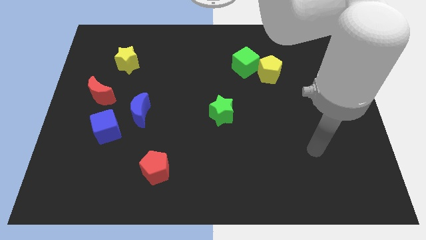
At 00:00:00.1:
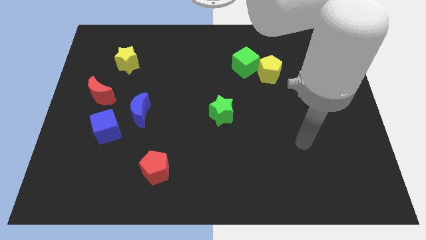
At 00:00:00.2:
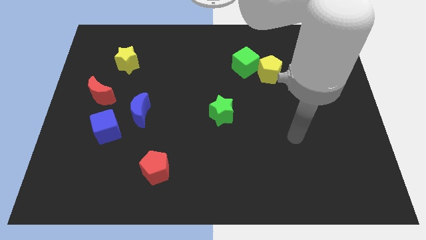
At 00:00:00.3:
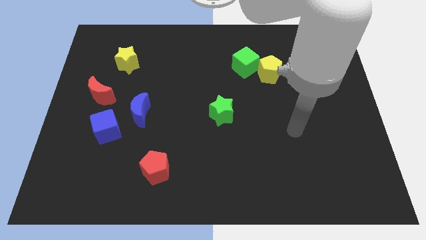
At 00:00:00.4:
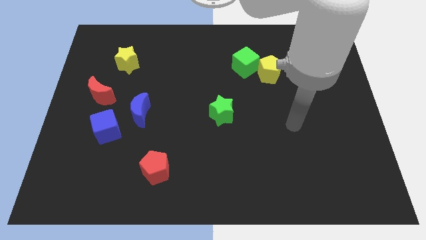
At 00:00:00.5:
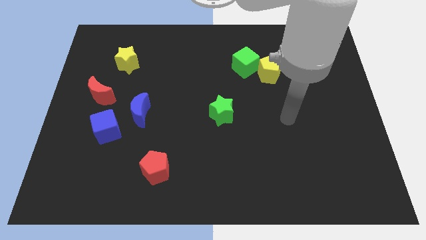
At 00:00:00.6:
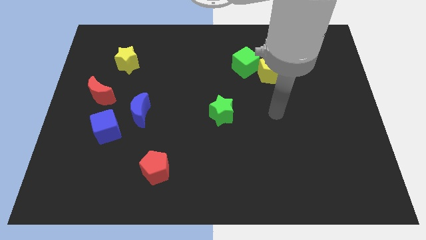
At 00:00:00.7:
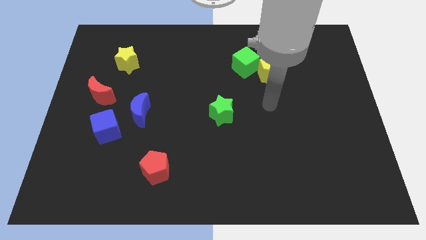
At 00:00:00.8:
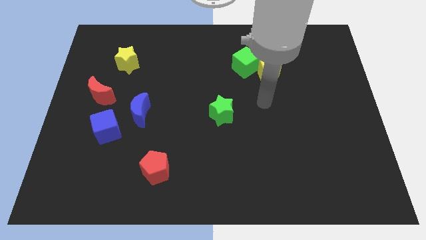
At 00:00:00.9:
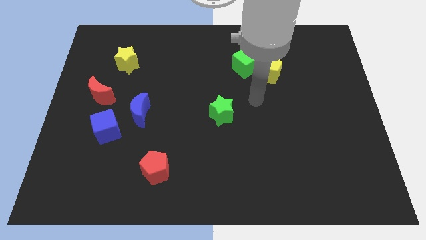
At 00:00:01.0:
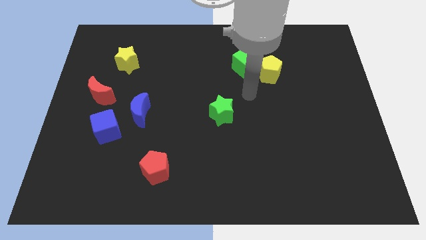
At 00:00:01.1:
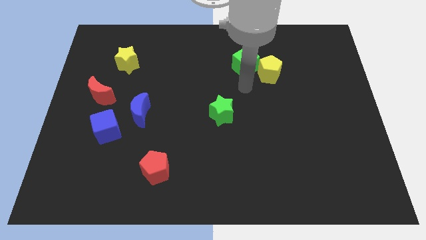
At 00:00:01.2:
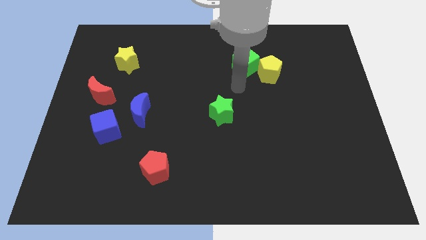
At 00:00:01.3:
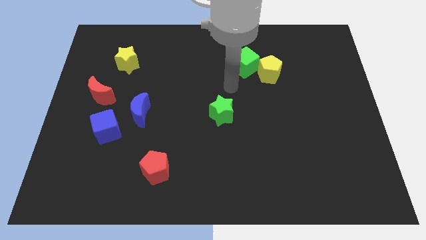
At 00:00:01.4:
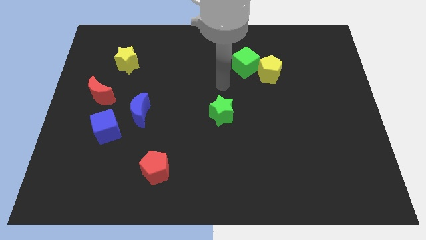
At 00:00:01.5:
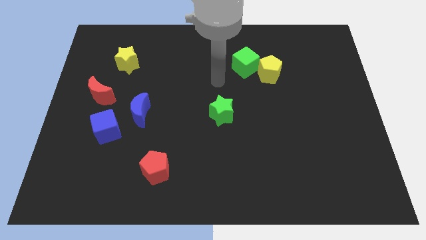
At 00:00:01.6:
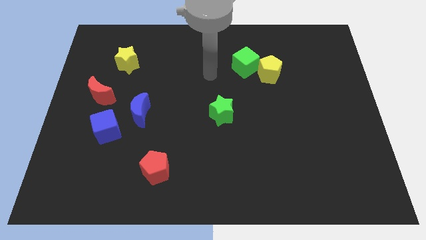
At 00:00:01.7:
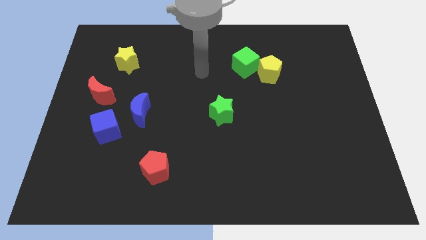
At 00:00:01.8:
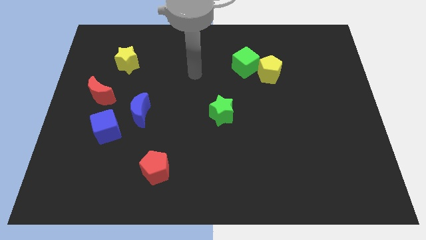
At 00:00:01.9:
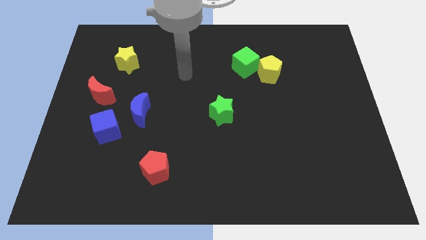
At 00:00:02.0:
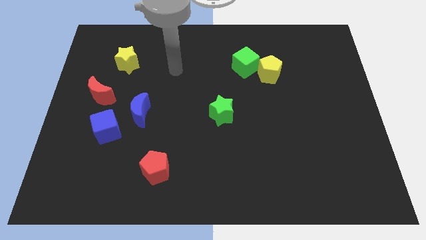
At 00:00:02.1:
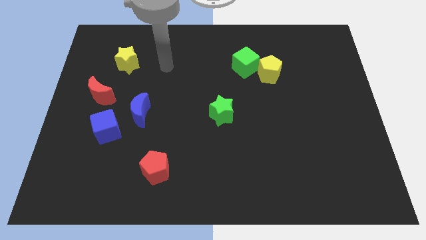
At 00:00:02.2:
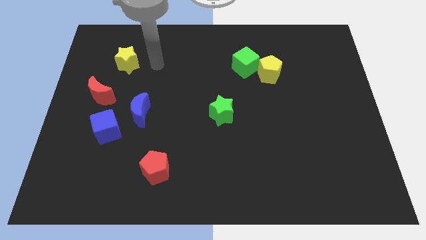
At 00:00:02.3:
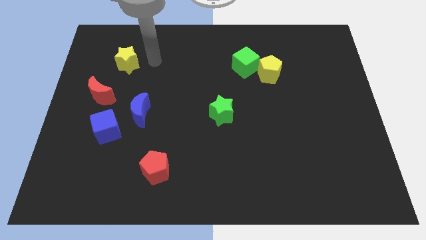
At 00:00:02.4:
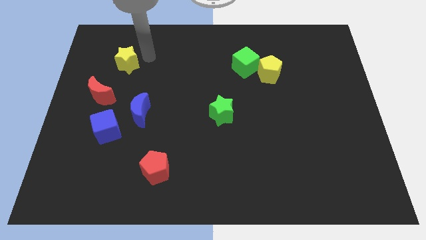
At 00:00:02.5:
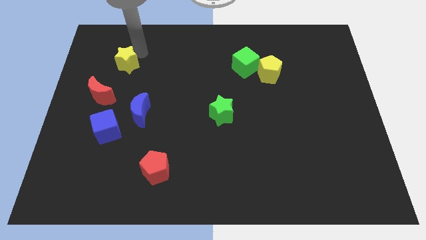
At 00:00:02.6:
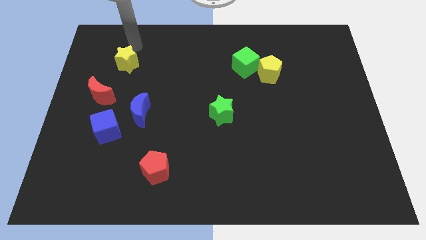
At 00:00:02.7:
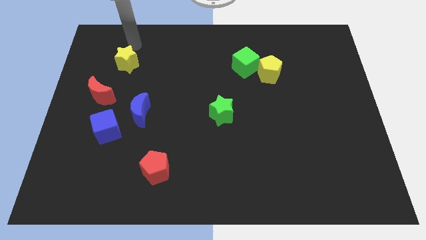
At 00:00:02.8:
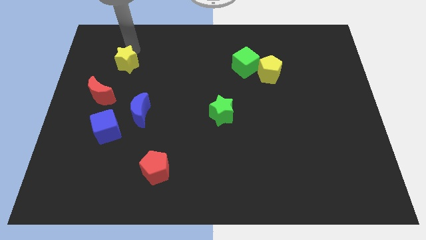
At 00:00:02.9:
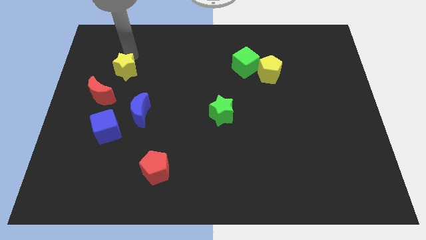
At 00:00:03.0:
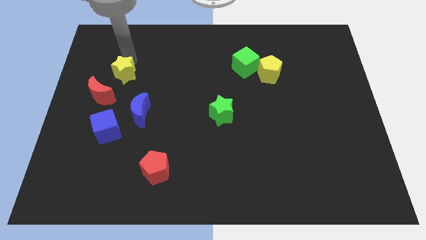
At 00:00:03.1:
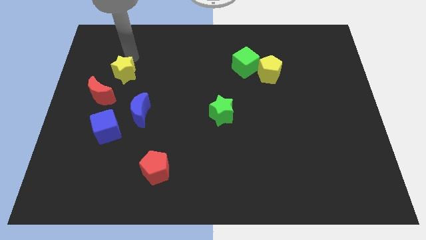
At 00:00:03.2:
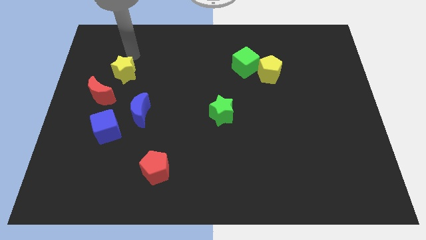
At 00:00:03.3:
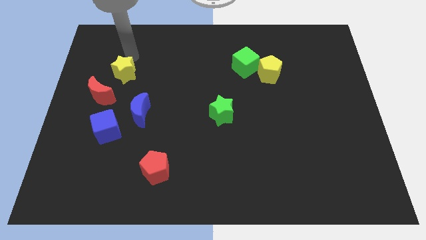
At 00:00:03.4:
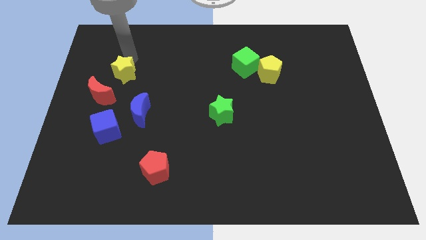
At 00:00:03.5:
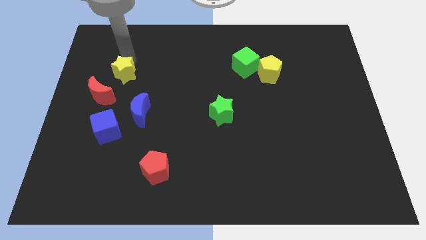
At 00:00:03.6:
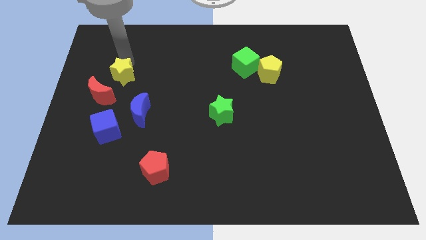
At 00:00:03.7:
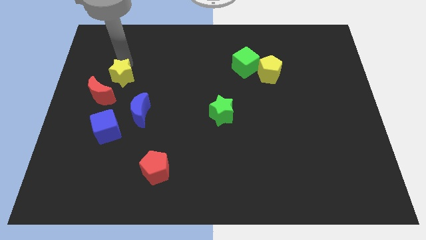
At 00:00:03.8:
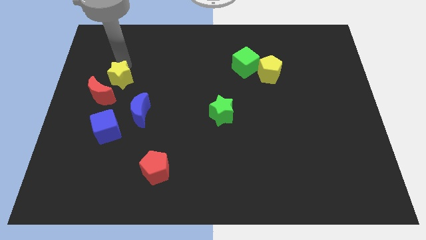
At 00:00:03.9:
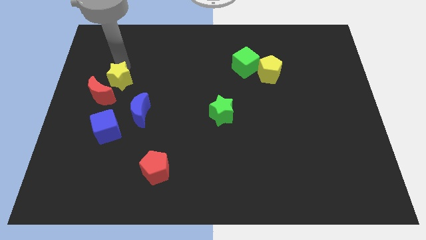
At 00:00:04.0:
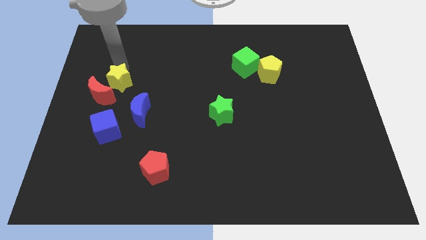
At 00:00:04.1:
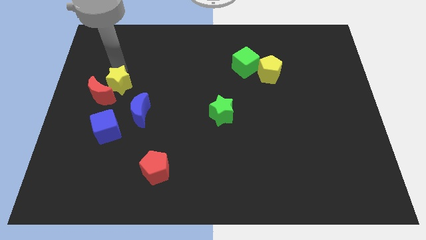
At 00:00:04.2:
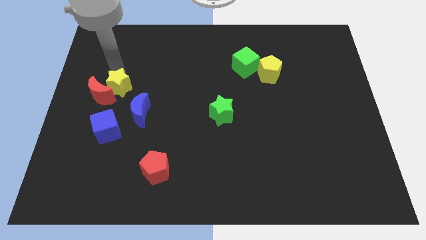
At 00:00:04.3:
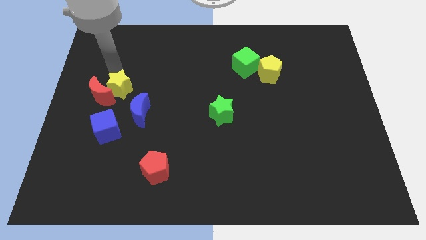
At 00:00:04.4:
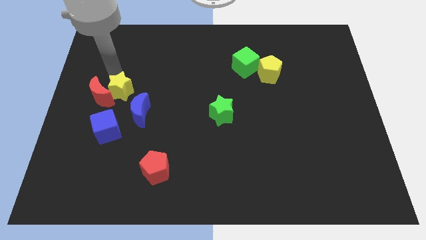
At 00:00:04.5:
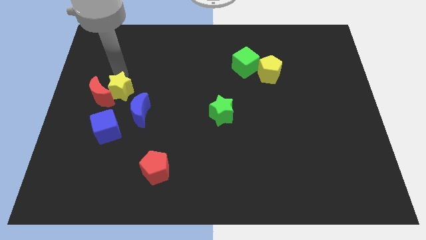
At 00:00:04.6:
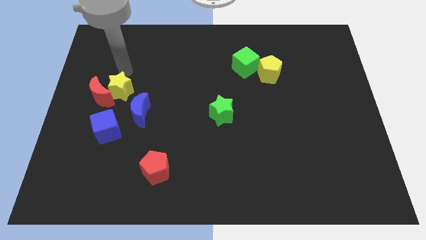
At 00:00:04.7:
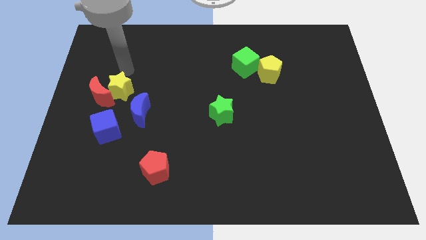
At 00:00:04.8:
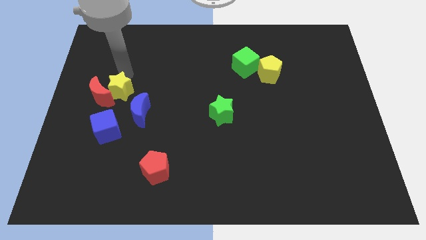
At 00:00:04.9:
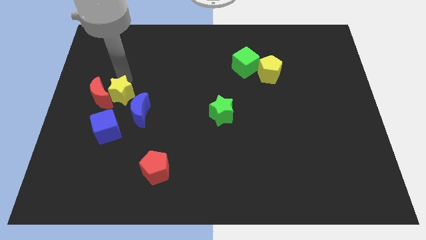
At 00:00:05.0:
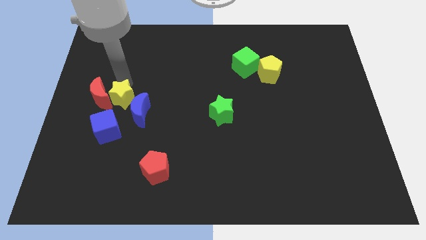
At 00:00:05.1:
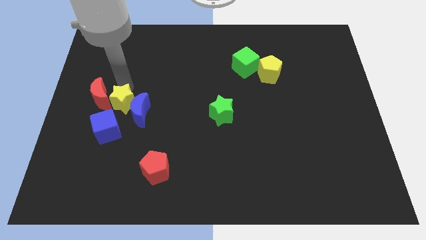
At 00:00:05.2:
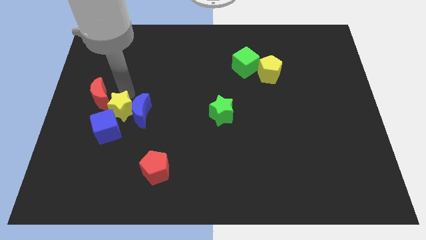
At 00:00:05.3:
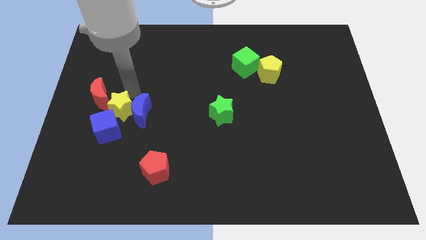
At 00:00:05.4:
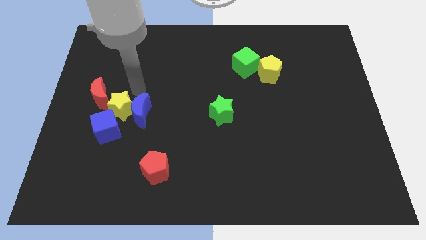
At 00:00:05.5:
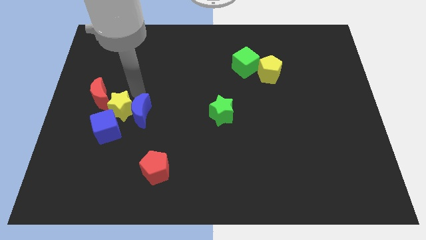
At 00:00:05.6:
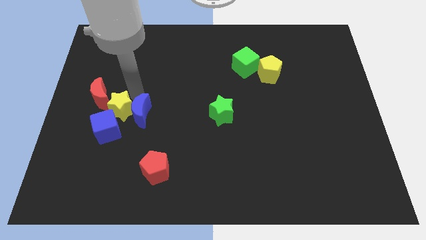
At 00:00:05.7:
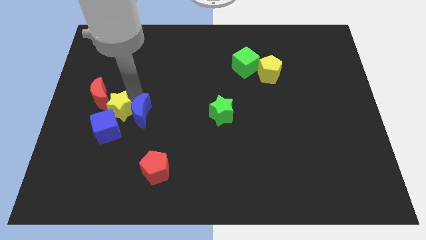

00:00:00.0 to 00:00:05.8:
put the yellow star to the blue cube

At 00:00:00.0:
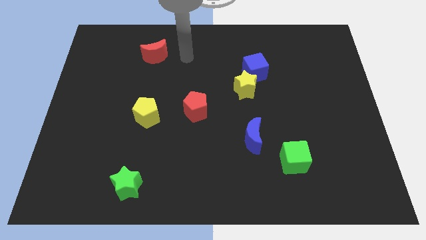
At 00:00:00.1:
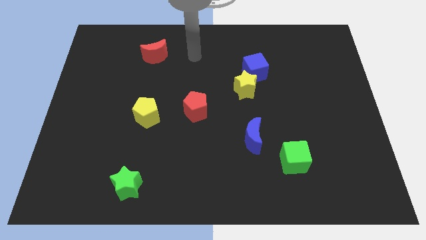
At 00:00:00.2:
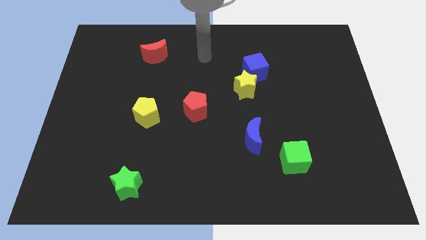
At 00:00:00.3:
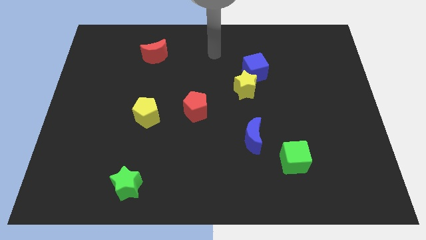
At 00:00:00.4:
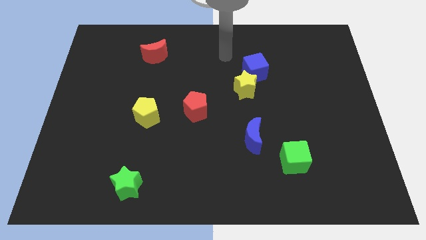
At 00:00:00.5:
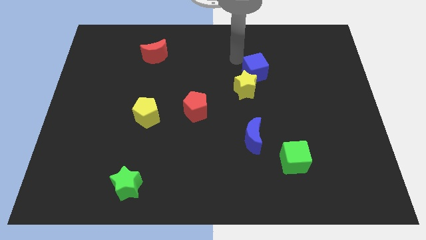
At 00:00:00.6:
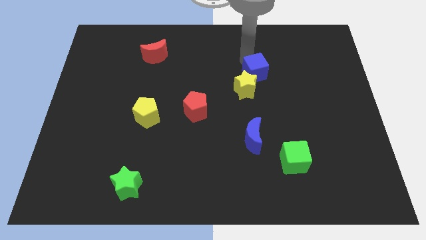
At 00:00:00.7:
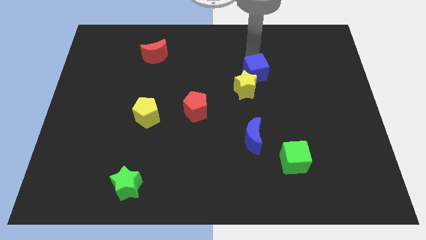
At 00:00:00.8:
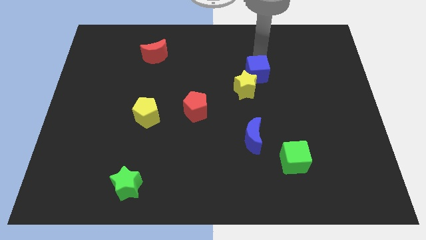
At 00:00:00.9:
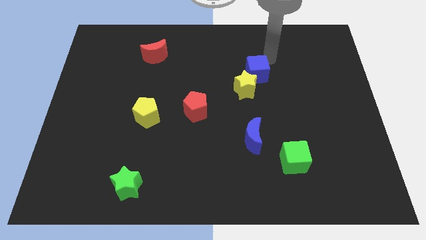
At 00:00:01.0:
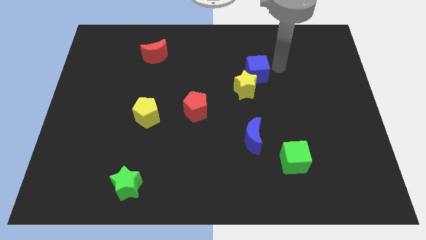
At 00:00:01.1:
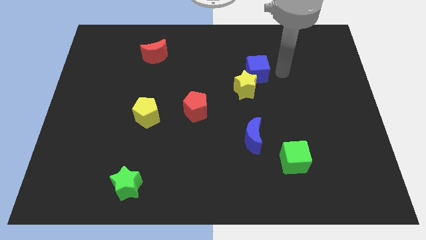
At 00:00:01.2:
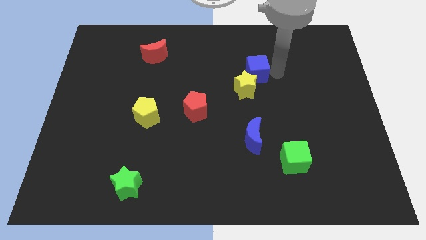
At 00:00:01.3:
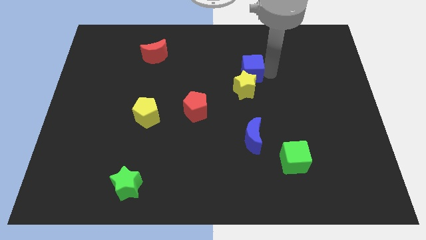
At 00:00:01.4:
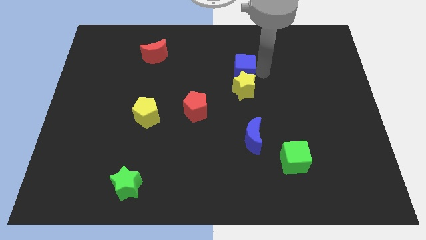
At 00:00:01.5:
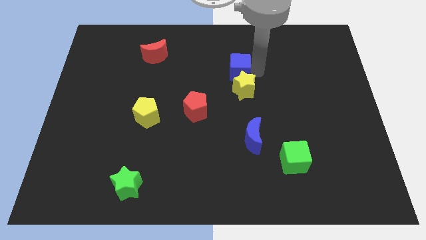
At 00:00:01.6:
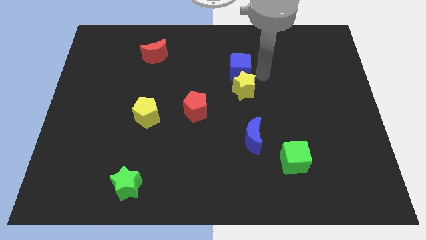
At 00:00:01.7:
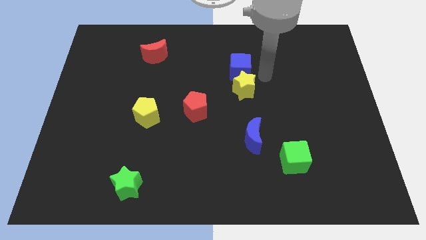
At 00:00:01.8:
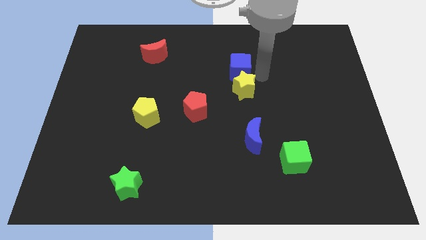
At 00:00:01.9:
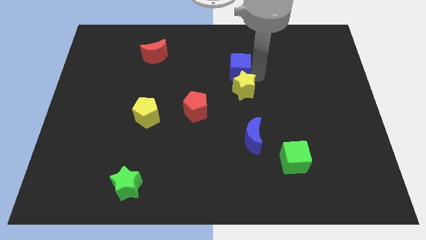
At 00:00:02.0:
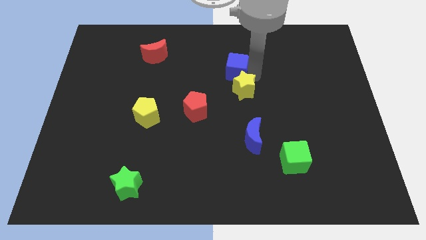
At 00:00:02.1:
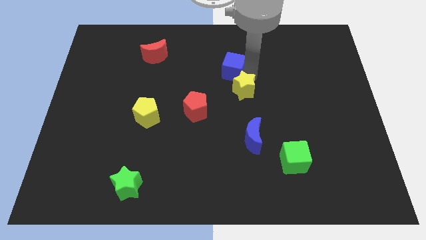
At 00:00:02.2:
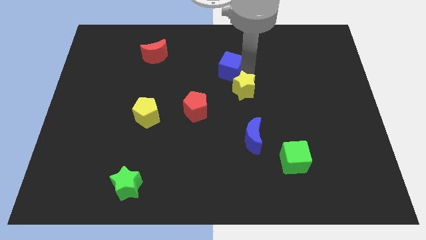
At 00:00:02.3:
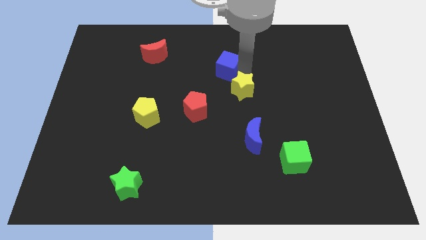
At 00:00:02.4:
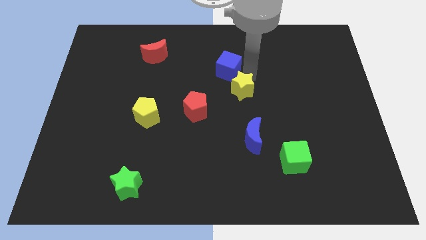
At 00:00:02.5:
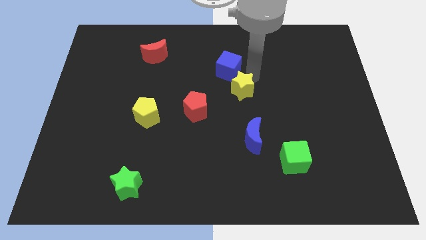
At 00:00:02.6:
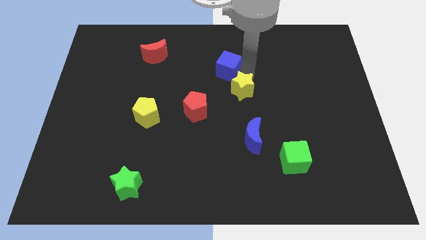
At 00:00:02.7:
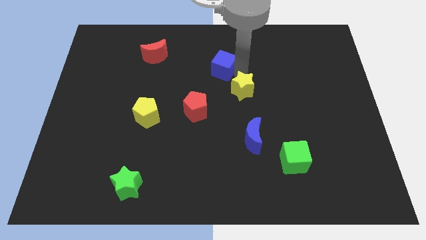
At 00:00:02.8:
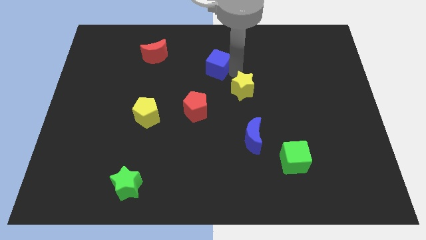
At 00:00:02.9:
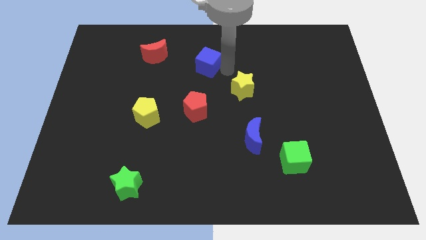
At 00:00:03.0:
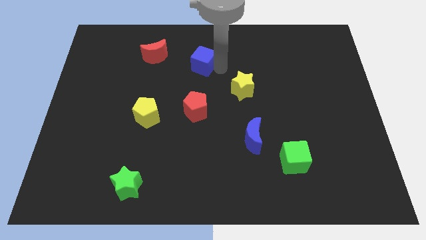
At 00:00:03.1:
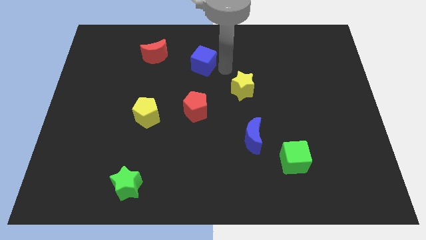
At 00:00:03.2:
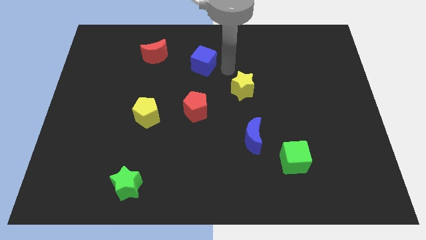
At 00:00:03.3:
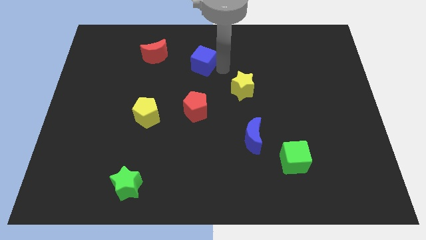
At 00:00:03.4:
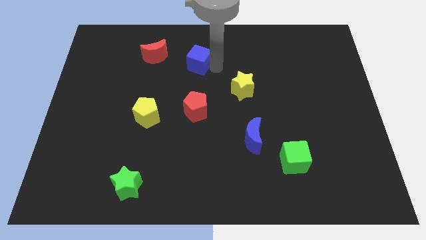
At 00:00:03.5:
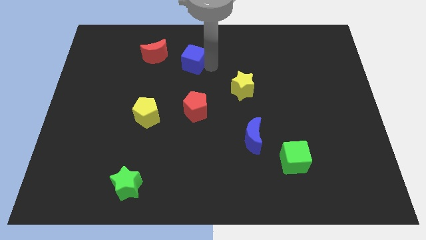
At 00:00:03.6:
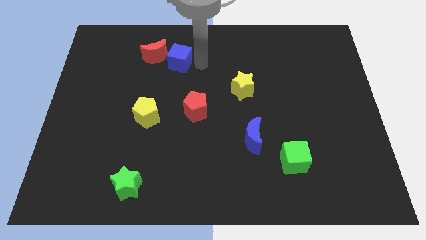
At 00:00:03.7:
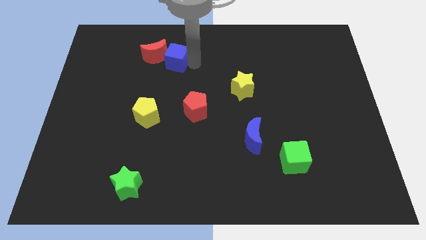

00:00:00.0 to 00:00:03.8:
push the blue cube close to the red moon
